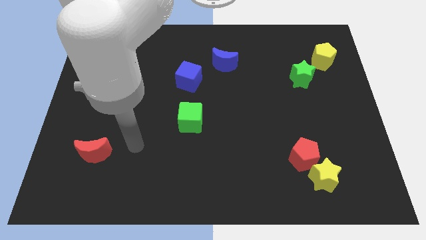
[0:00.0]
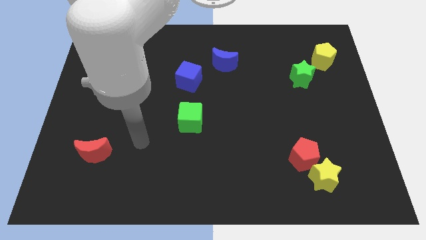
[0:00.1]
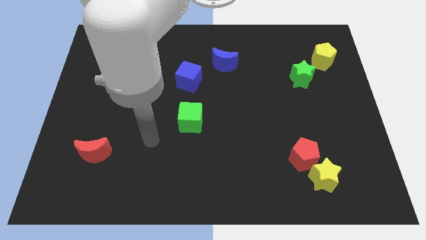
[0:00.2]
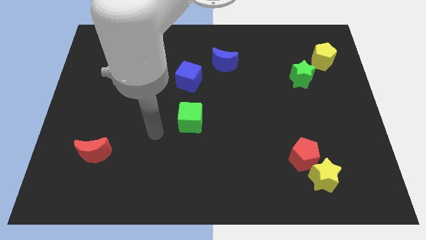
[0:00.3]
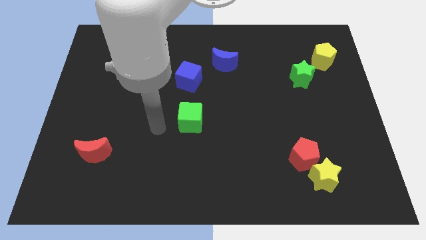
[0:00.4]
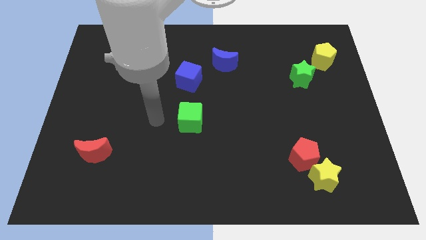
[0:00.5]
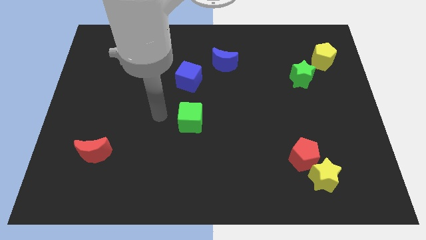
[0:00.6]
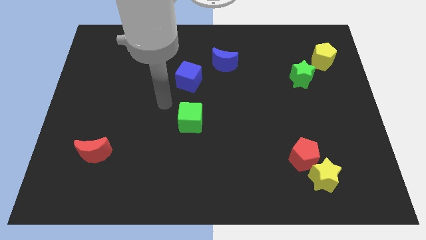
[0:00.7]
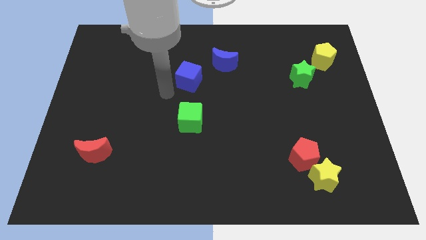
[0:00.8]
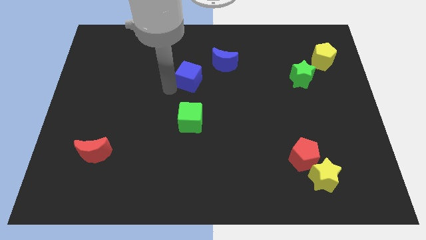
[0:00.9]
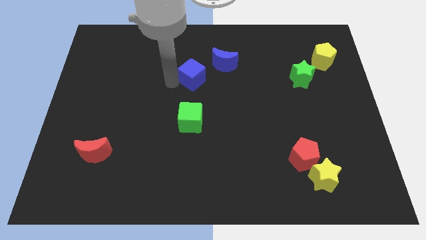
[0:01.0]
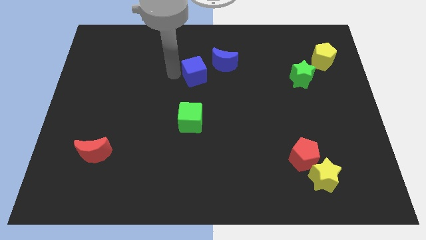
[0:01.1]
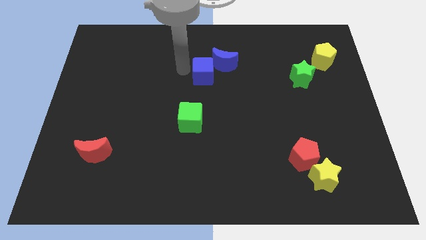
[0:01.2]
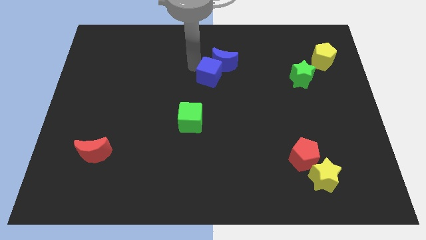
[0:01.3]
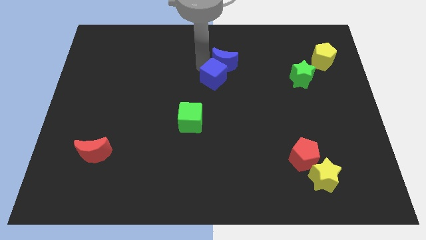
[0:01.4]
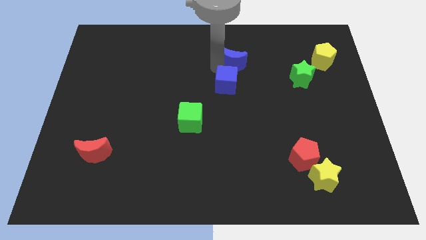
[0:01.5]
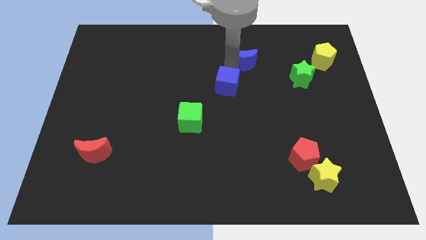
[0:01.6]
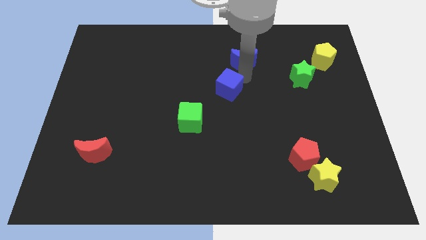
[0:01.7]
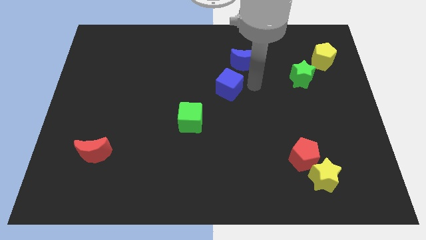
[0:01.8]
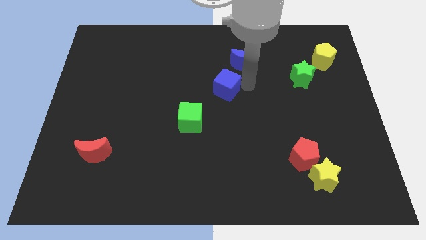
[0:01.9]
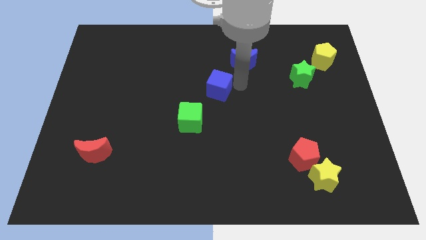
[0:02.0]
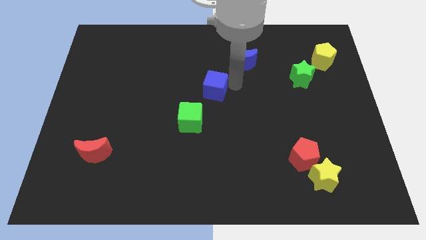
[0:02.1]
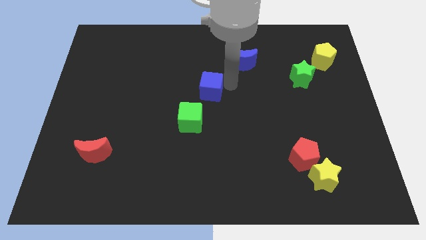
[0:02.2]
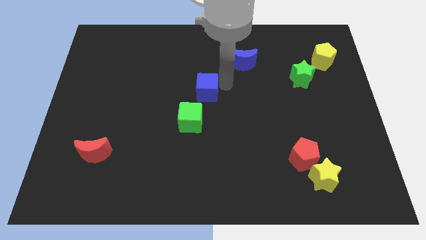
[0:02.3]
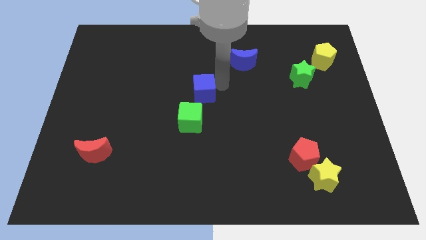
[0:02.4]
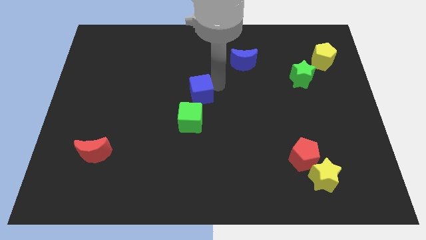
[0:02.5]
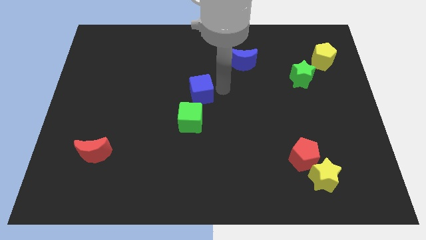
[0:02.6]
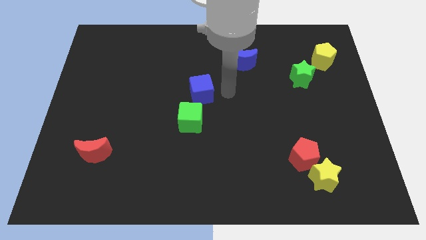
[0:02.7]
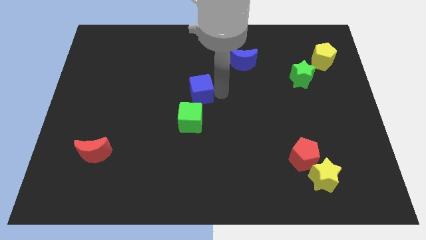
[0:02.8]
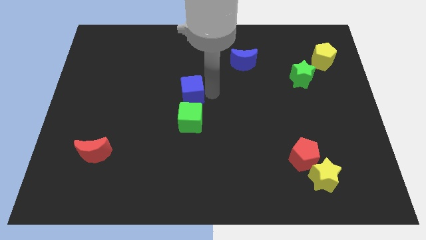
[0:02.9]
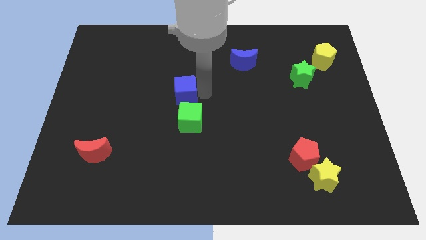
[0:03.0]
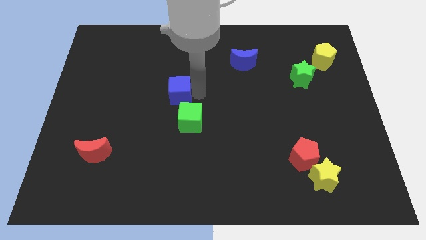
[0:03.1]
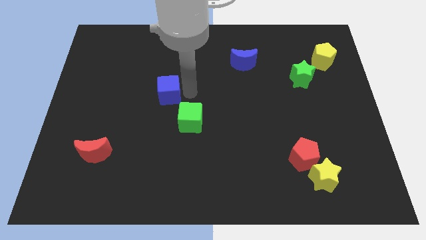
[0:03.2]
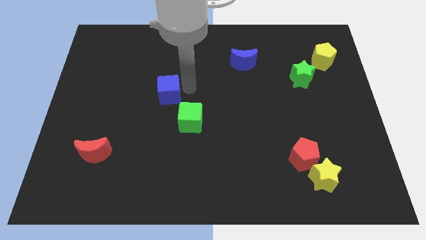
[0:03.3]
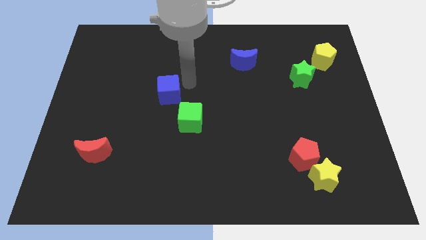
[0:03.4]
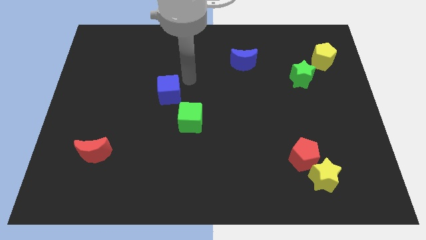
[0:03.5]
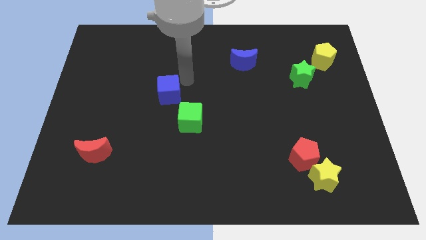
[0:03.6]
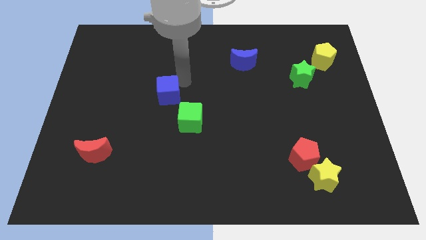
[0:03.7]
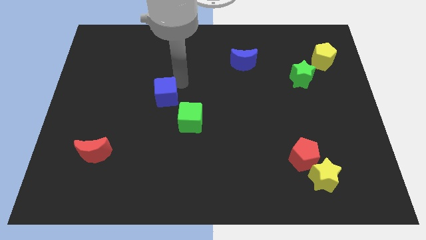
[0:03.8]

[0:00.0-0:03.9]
slightly move the blue cube downwards and left diagonally

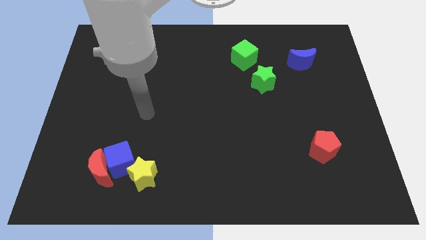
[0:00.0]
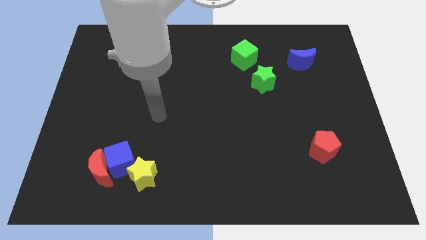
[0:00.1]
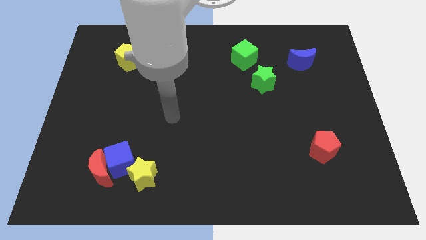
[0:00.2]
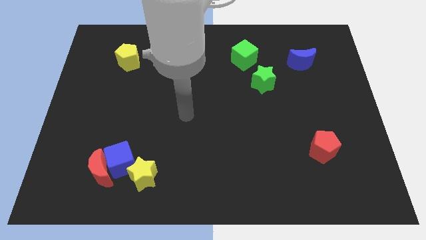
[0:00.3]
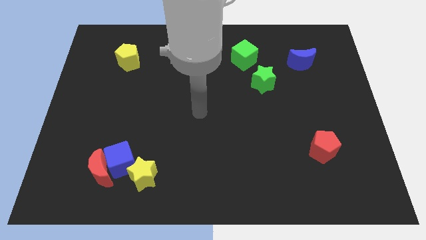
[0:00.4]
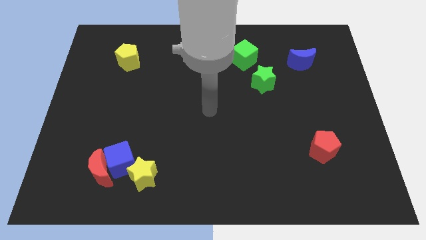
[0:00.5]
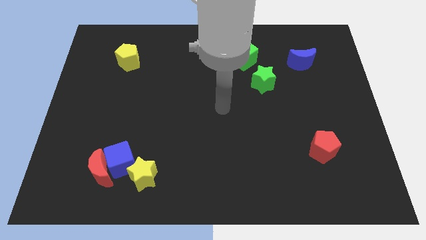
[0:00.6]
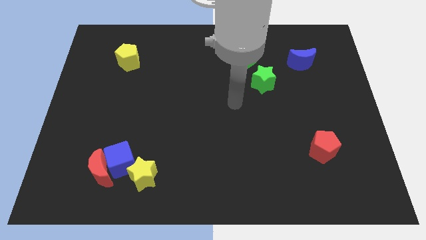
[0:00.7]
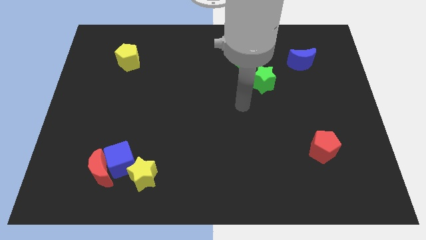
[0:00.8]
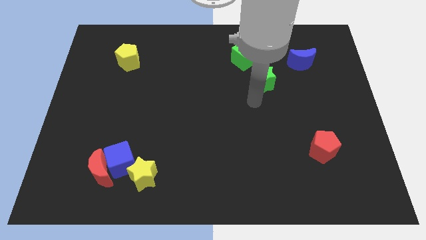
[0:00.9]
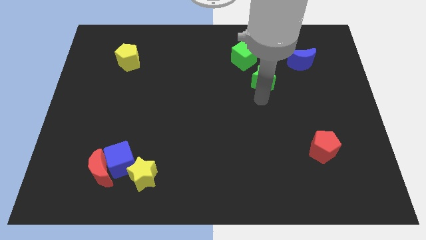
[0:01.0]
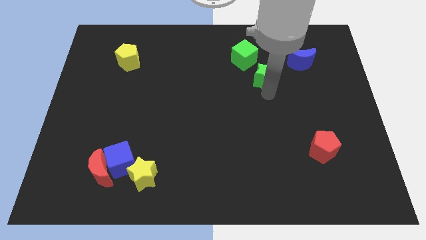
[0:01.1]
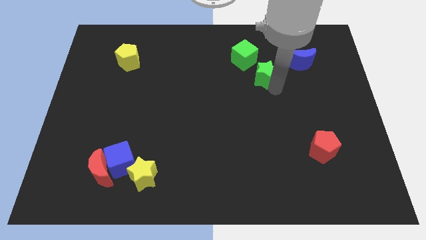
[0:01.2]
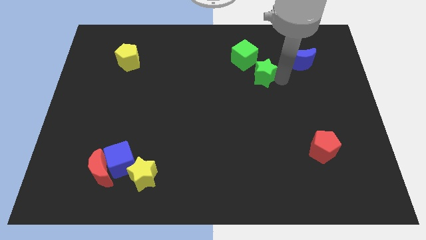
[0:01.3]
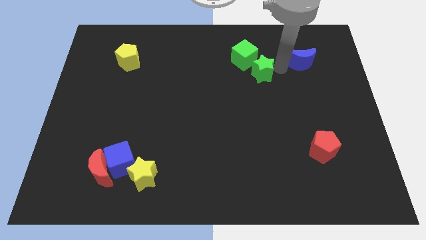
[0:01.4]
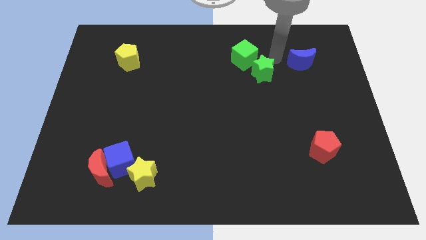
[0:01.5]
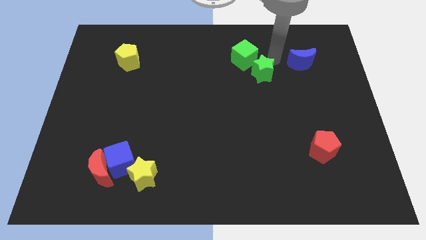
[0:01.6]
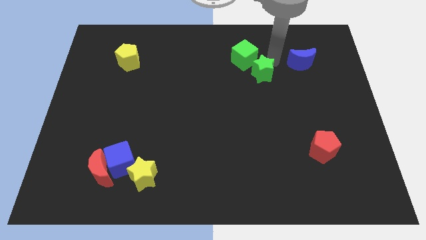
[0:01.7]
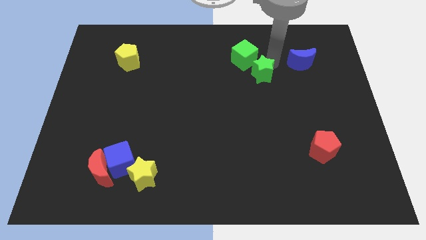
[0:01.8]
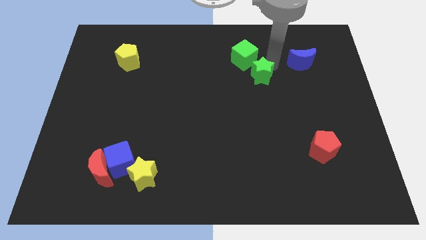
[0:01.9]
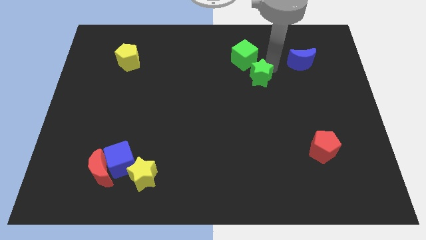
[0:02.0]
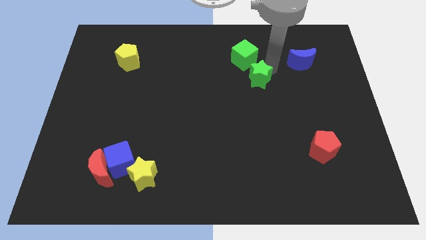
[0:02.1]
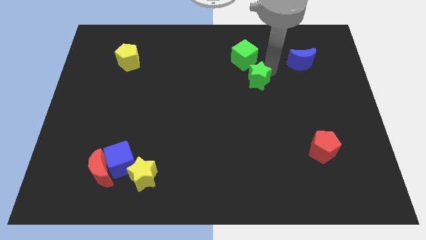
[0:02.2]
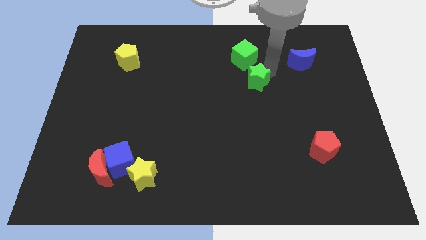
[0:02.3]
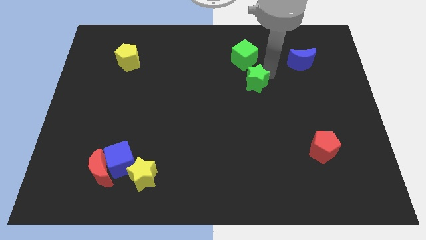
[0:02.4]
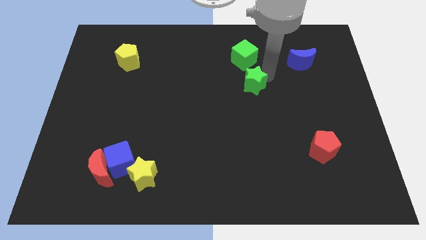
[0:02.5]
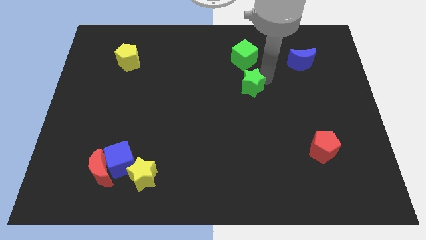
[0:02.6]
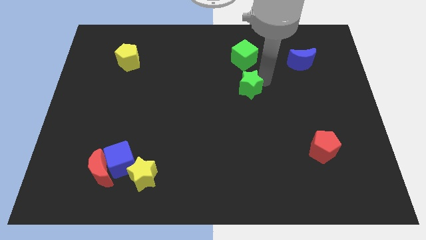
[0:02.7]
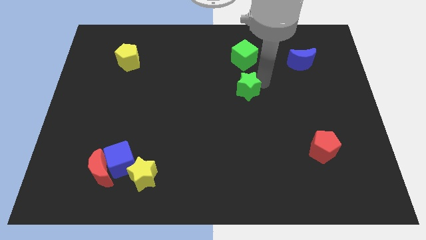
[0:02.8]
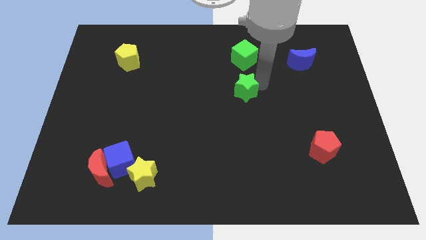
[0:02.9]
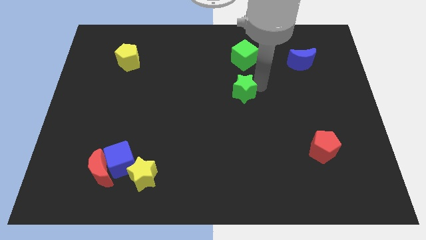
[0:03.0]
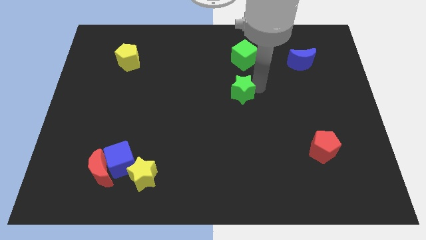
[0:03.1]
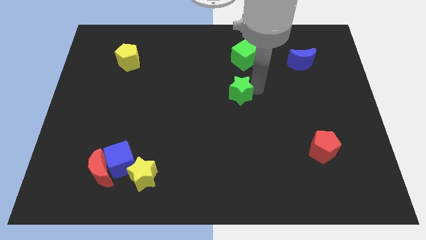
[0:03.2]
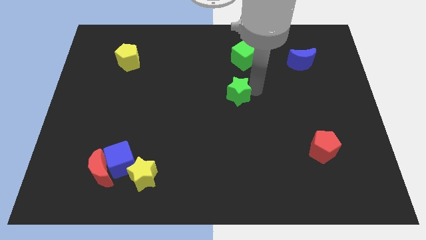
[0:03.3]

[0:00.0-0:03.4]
push the green star a little bit downwards and then left

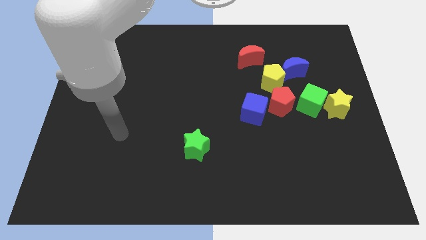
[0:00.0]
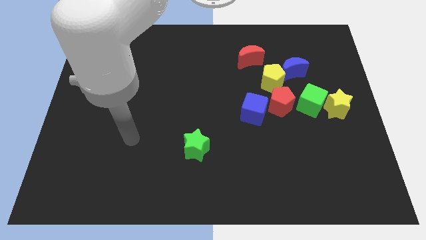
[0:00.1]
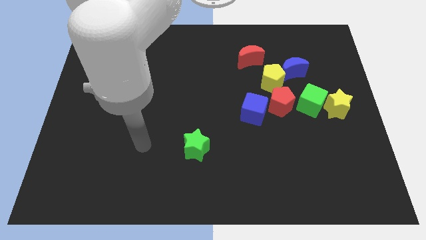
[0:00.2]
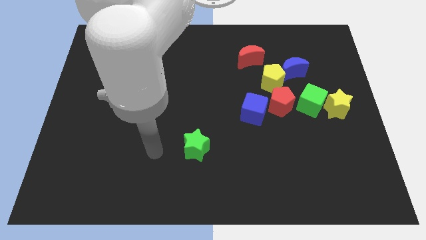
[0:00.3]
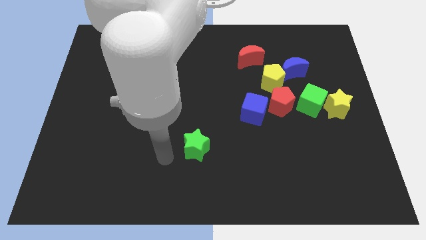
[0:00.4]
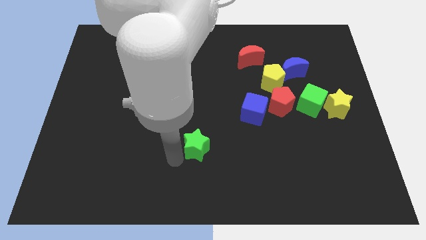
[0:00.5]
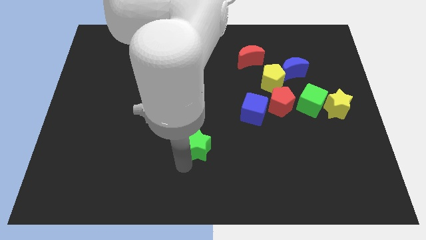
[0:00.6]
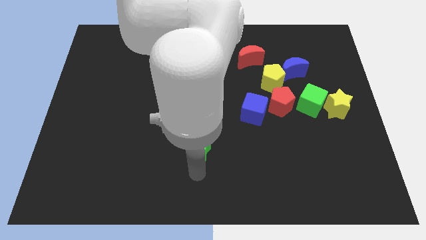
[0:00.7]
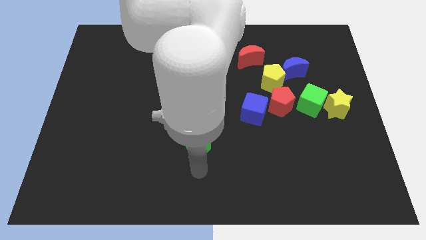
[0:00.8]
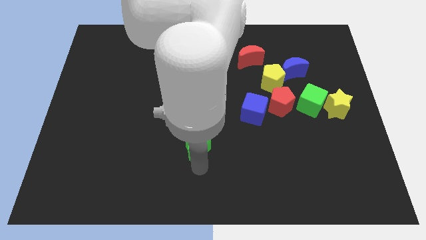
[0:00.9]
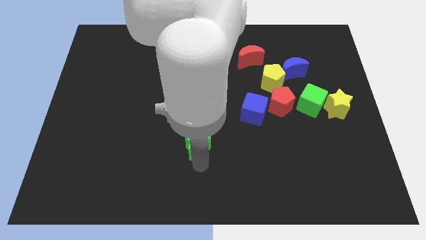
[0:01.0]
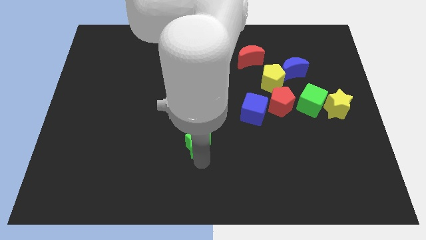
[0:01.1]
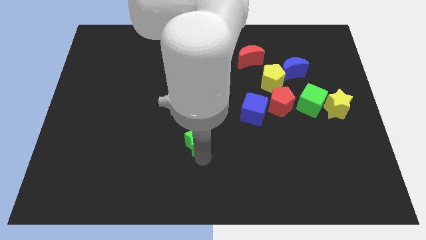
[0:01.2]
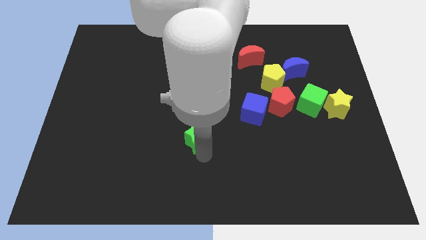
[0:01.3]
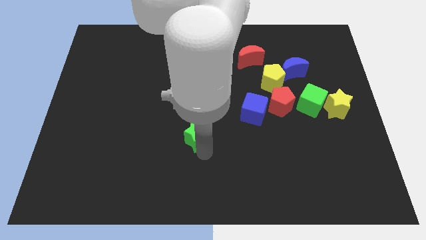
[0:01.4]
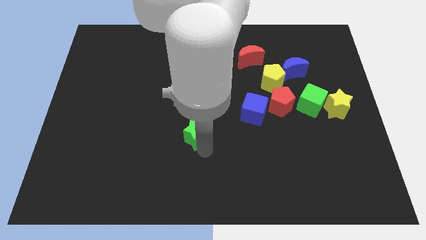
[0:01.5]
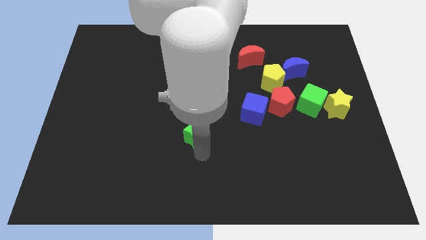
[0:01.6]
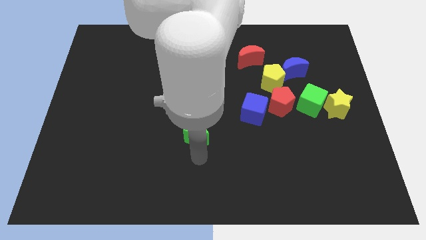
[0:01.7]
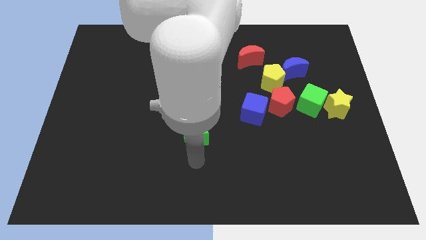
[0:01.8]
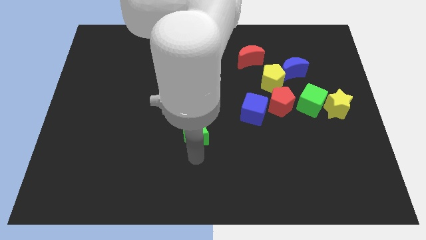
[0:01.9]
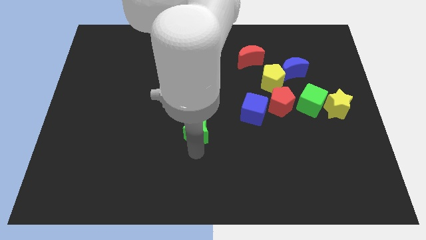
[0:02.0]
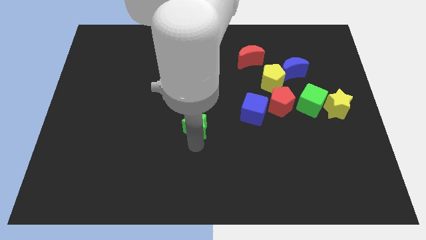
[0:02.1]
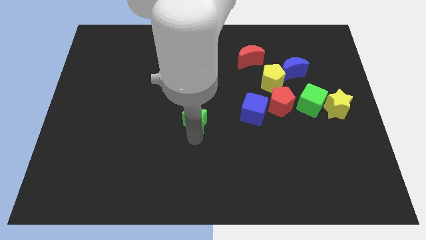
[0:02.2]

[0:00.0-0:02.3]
slightly slide the green star upwards
